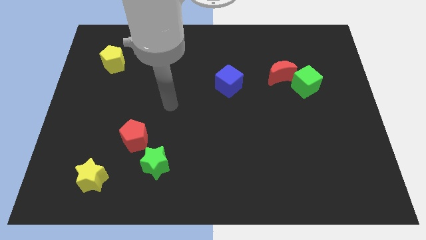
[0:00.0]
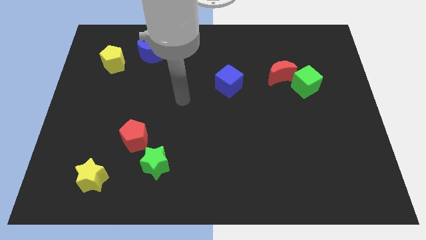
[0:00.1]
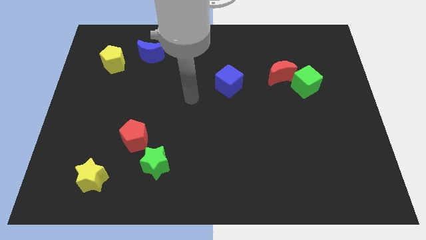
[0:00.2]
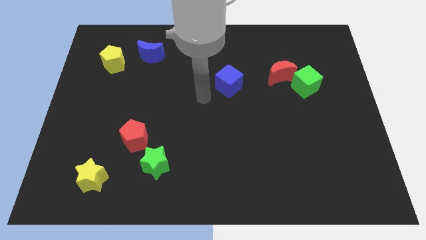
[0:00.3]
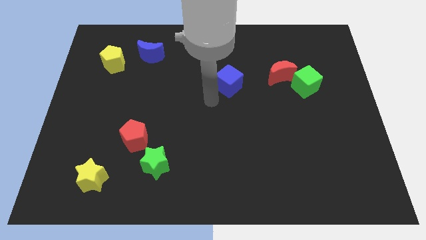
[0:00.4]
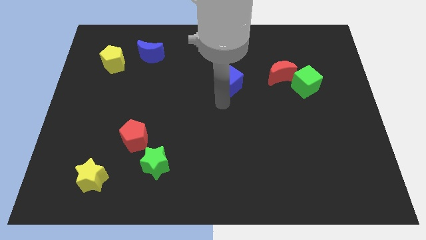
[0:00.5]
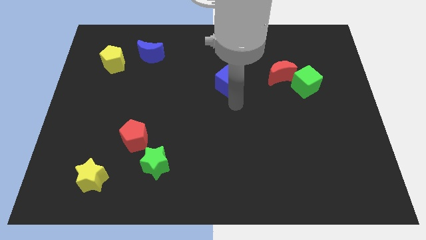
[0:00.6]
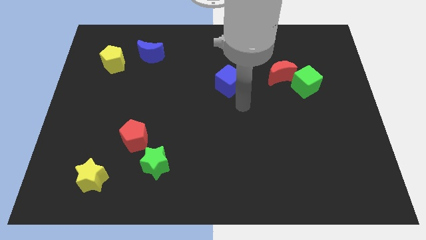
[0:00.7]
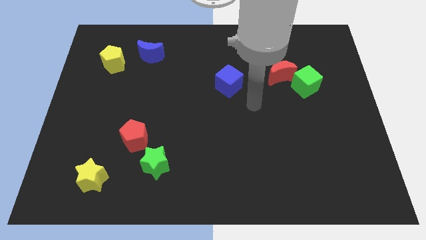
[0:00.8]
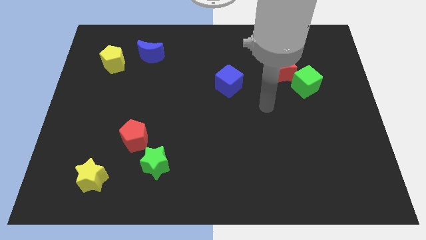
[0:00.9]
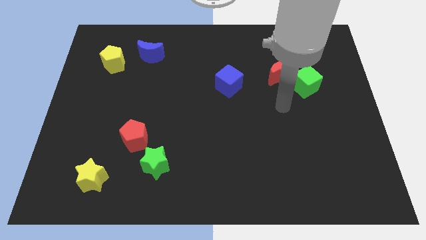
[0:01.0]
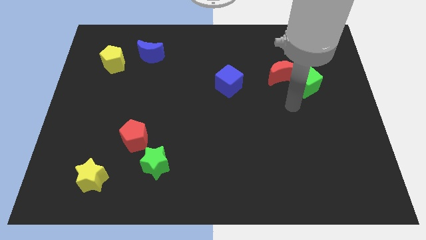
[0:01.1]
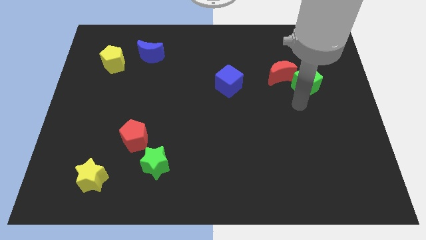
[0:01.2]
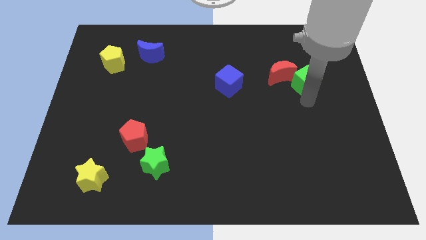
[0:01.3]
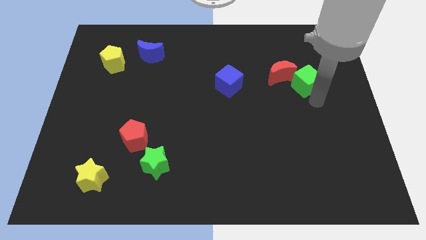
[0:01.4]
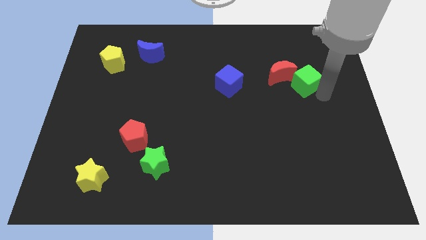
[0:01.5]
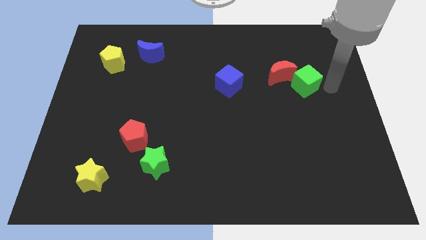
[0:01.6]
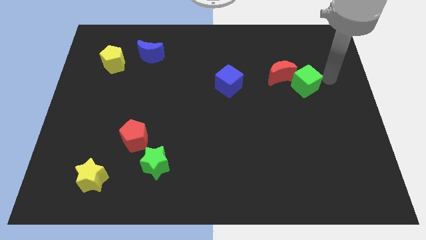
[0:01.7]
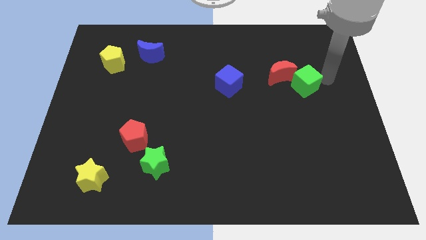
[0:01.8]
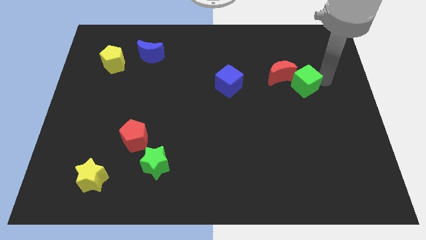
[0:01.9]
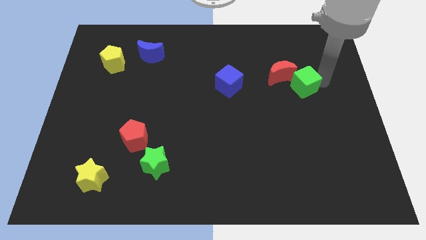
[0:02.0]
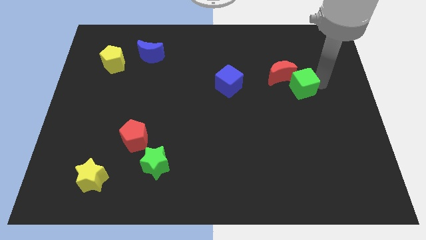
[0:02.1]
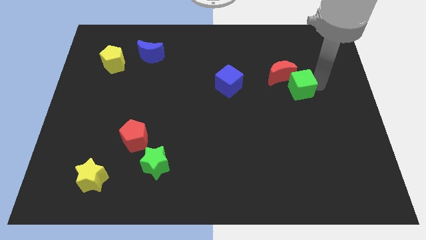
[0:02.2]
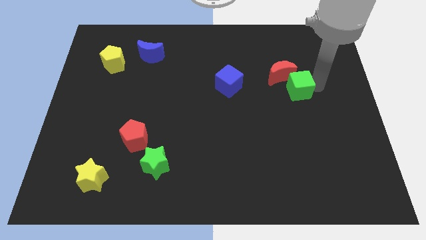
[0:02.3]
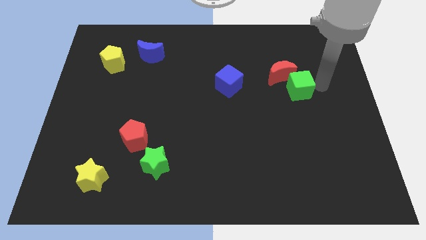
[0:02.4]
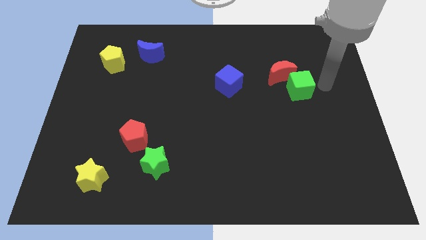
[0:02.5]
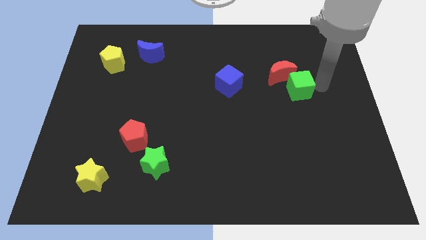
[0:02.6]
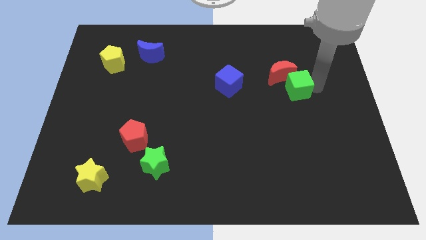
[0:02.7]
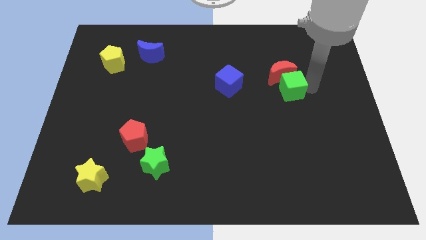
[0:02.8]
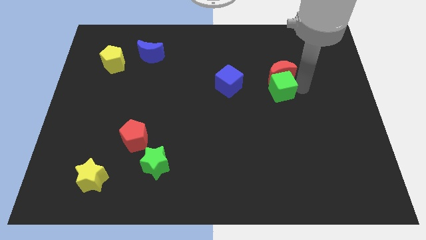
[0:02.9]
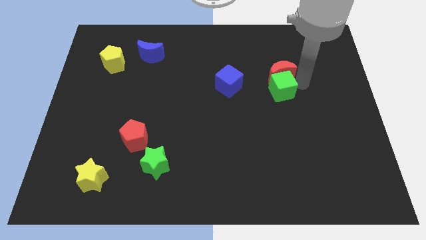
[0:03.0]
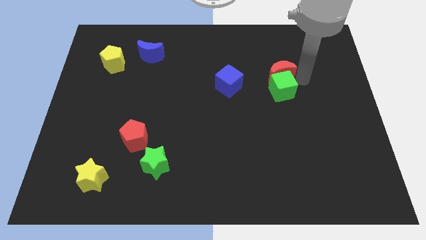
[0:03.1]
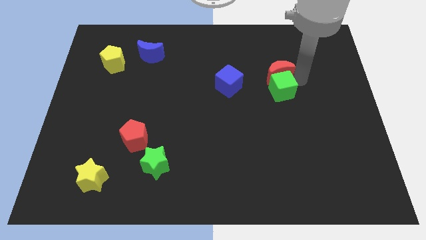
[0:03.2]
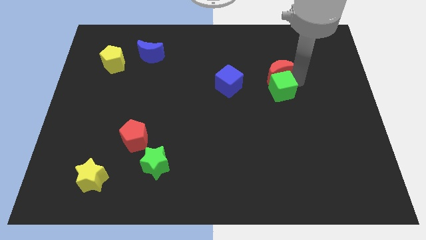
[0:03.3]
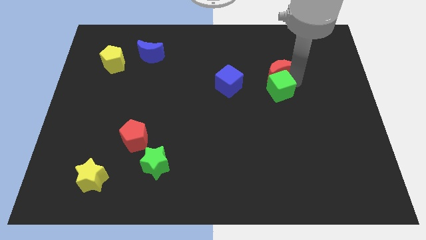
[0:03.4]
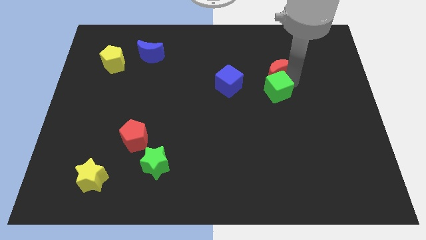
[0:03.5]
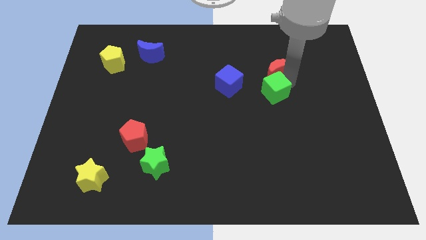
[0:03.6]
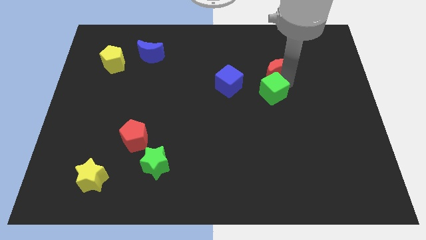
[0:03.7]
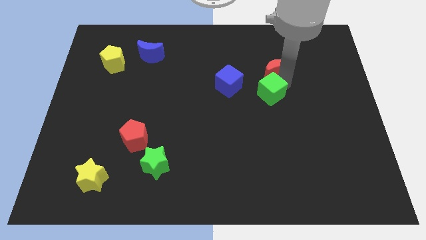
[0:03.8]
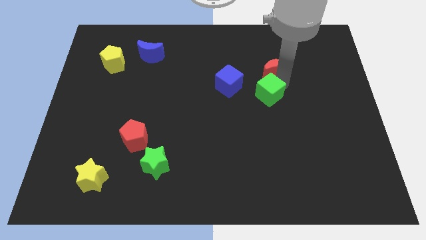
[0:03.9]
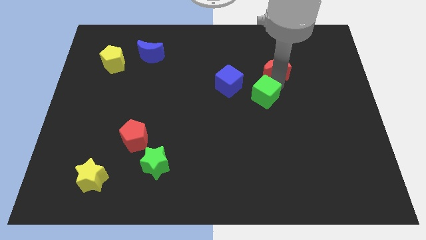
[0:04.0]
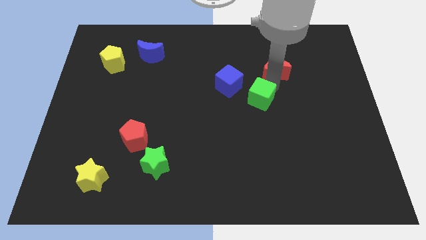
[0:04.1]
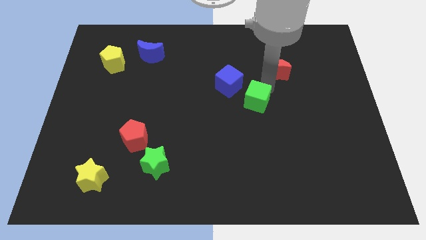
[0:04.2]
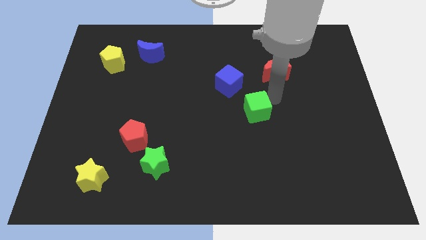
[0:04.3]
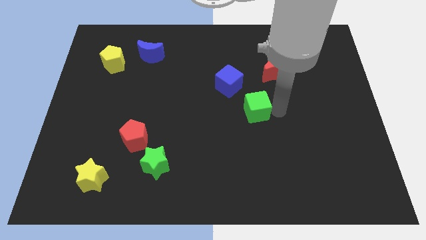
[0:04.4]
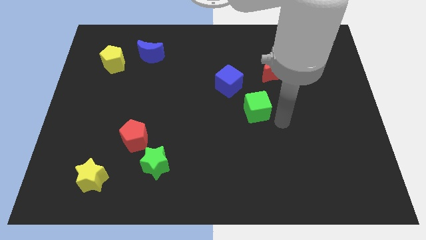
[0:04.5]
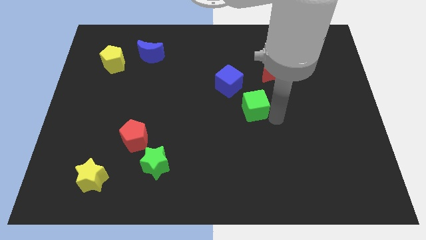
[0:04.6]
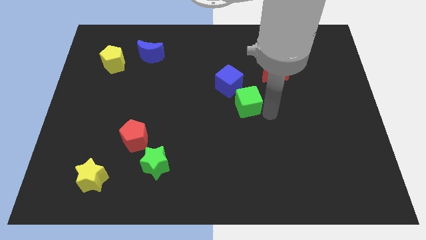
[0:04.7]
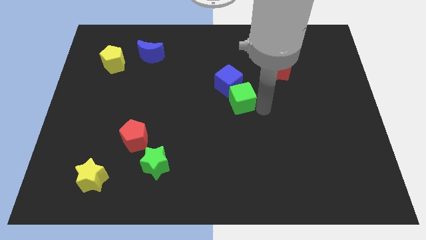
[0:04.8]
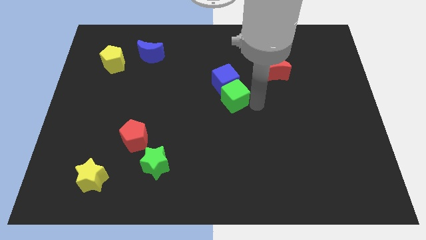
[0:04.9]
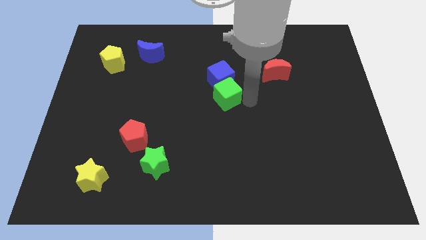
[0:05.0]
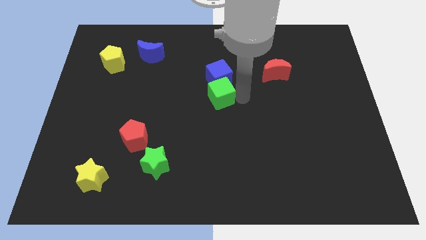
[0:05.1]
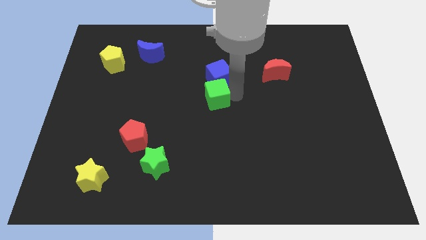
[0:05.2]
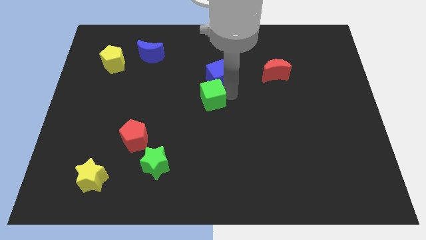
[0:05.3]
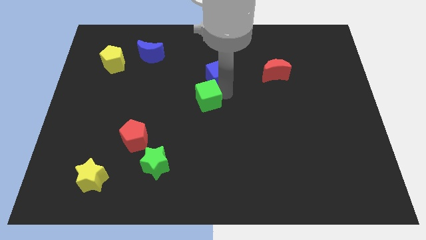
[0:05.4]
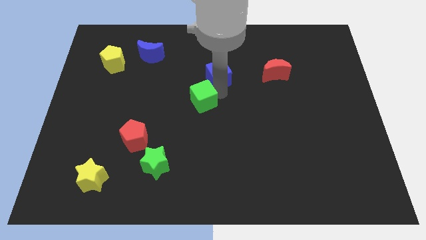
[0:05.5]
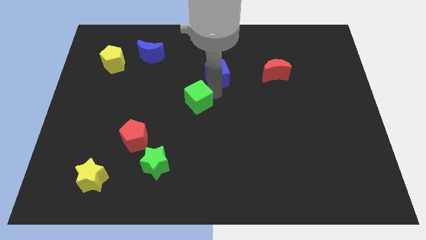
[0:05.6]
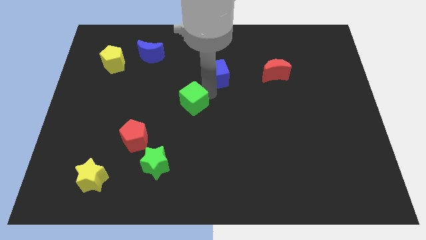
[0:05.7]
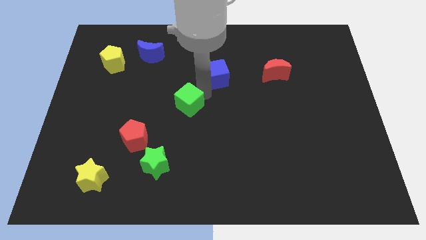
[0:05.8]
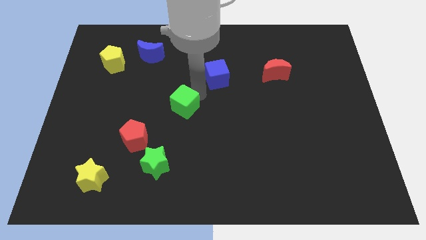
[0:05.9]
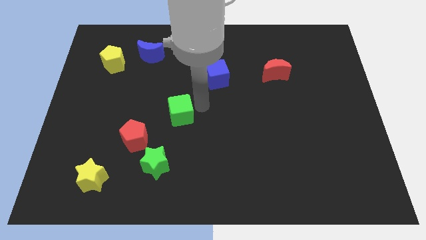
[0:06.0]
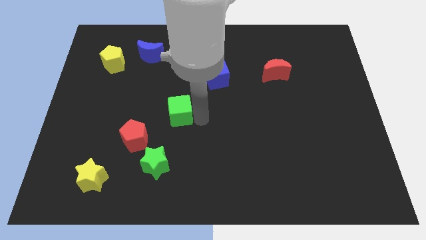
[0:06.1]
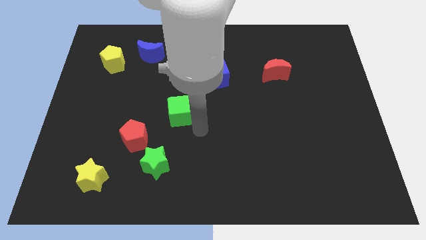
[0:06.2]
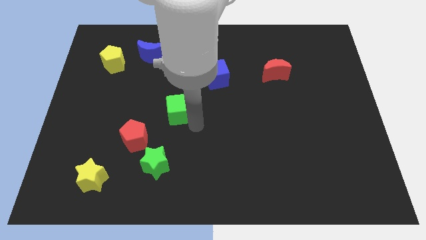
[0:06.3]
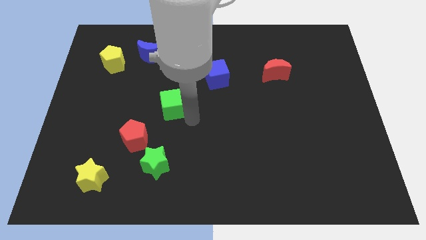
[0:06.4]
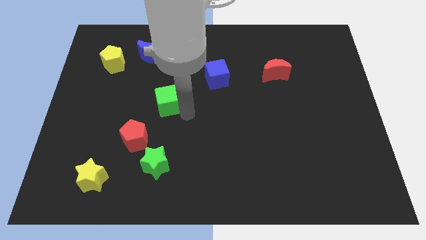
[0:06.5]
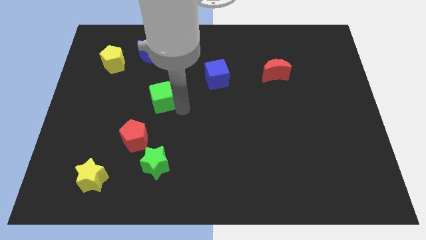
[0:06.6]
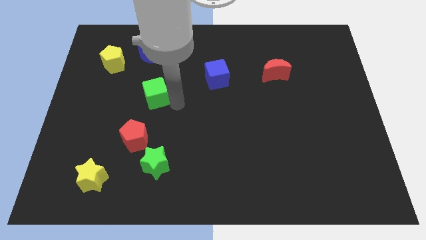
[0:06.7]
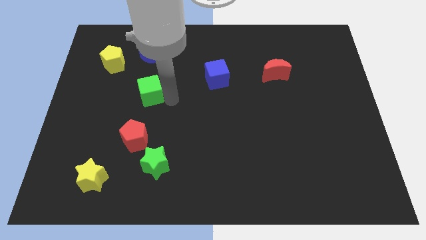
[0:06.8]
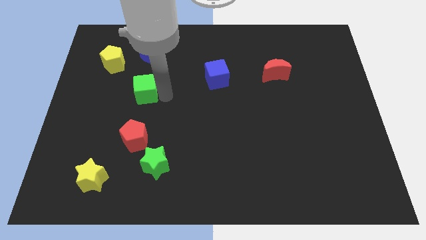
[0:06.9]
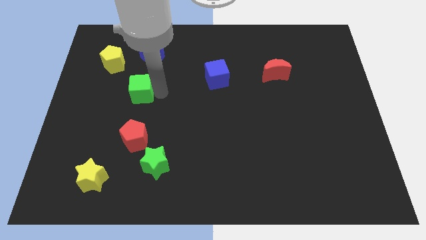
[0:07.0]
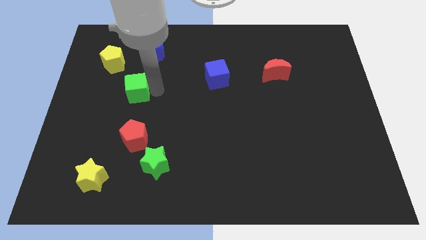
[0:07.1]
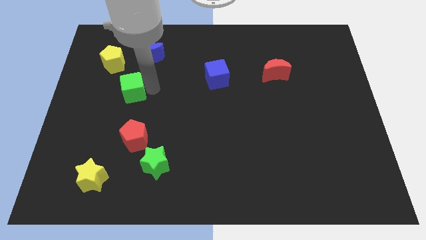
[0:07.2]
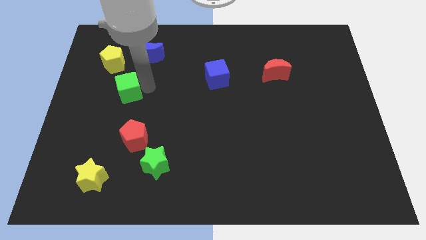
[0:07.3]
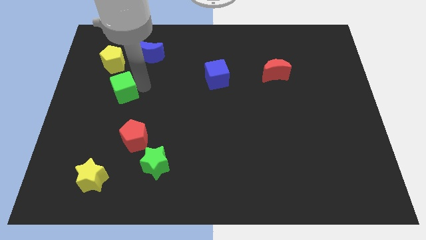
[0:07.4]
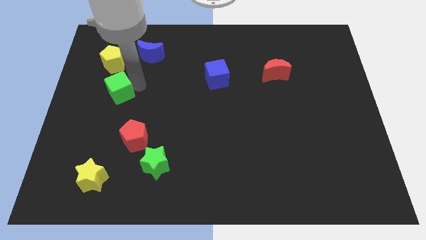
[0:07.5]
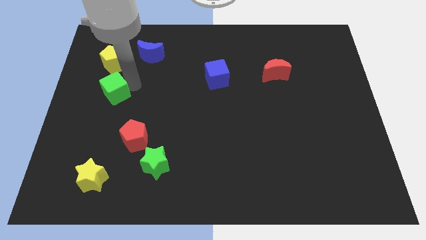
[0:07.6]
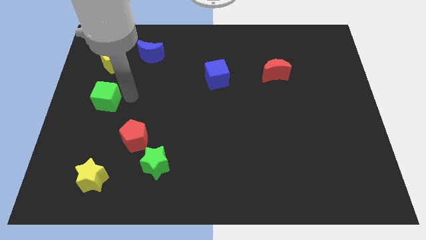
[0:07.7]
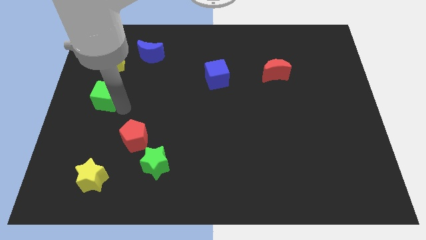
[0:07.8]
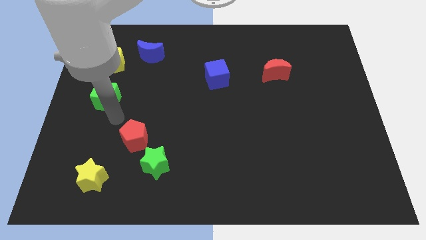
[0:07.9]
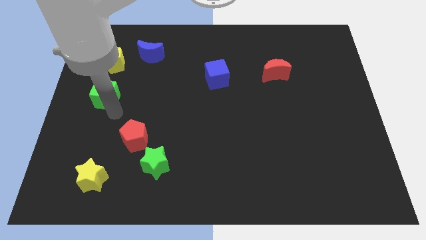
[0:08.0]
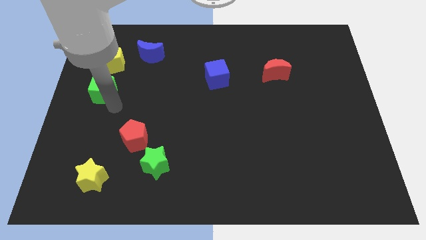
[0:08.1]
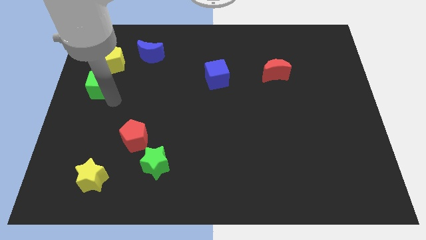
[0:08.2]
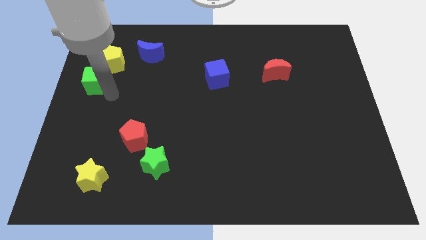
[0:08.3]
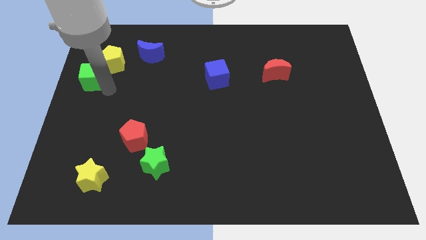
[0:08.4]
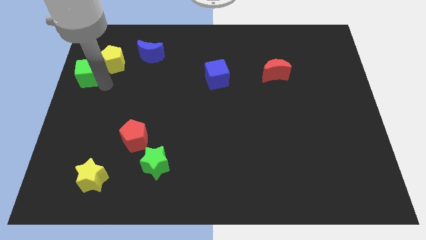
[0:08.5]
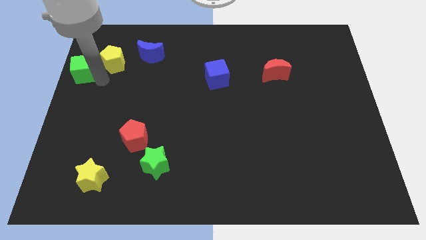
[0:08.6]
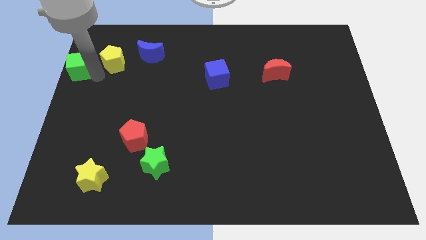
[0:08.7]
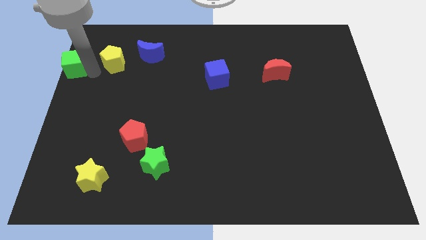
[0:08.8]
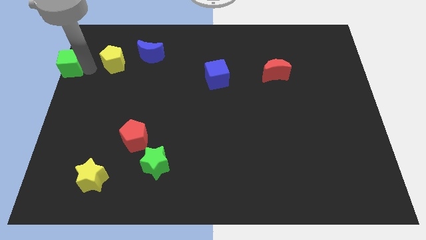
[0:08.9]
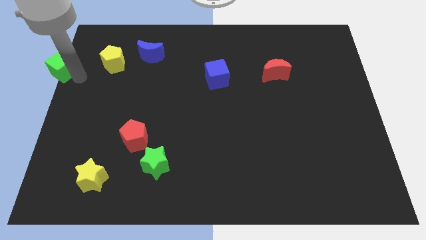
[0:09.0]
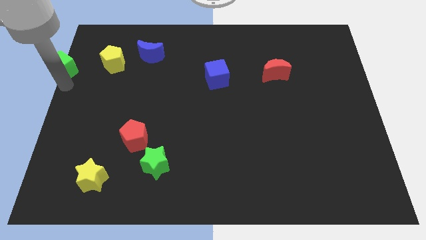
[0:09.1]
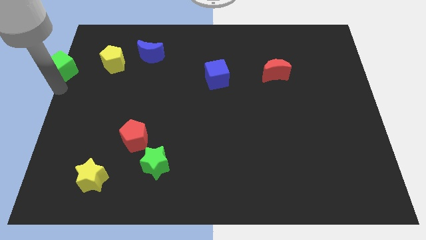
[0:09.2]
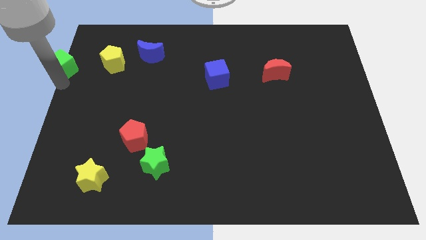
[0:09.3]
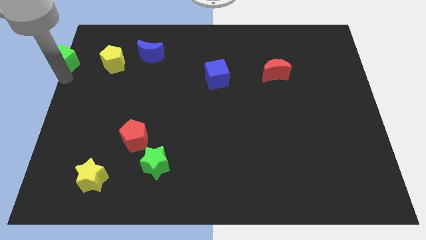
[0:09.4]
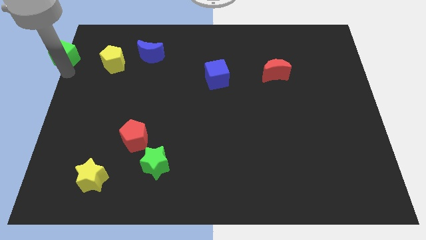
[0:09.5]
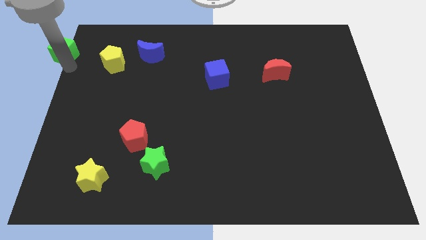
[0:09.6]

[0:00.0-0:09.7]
move the green cube to the top left of the board
